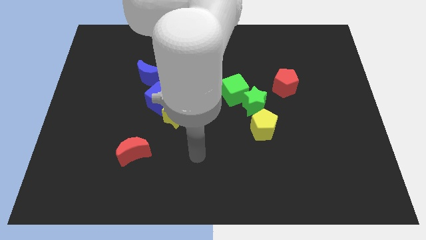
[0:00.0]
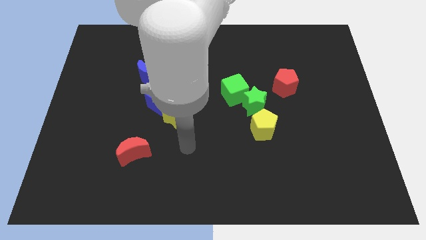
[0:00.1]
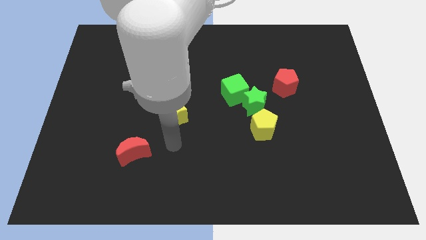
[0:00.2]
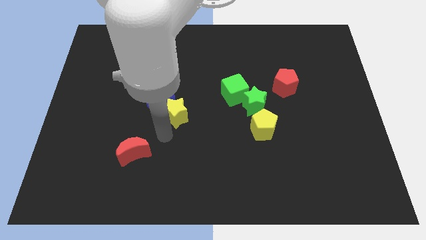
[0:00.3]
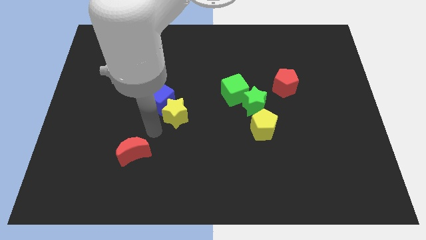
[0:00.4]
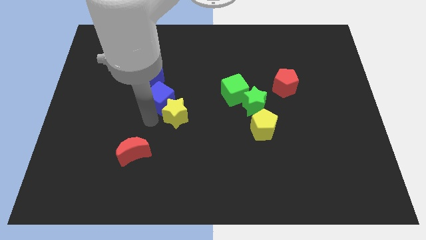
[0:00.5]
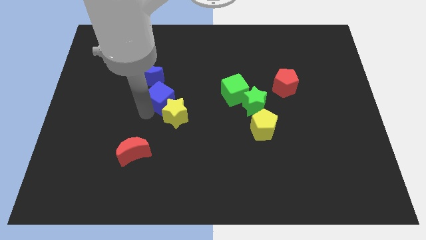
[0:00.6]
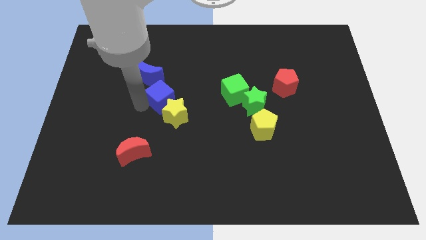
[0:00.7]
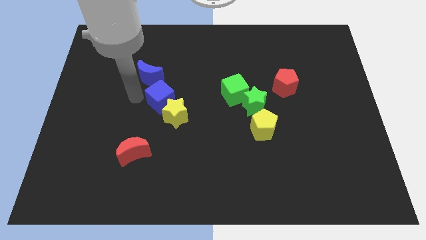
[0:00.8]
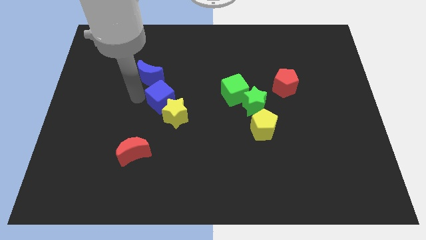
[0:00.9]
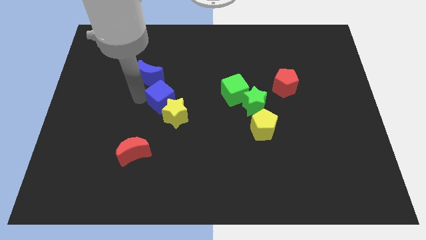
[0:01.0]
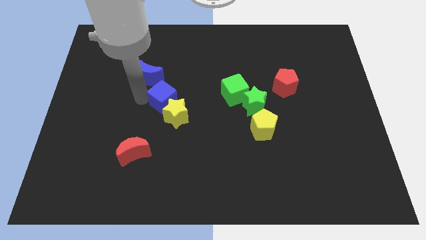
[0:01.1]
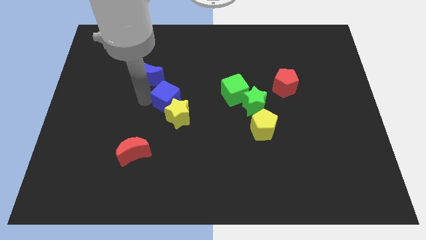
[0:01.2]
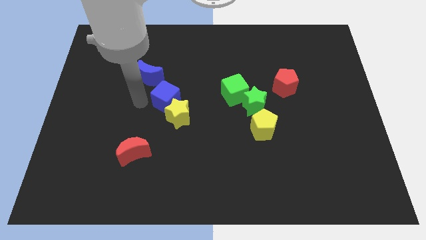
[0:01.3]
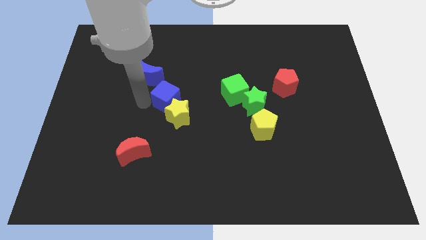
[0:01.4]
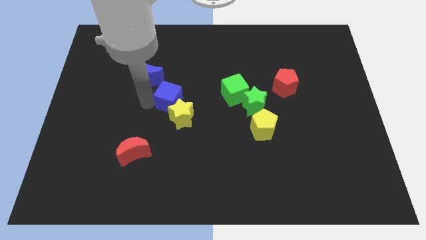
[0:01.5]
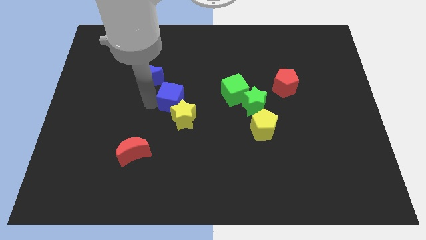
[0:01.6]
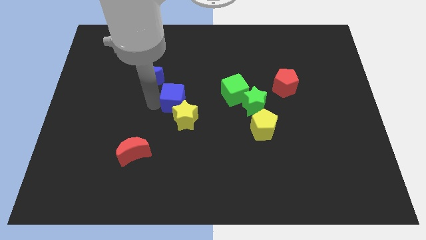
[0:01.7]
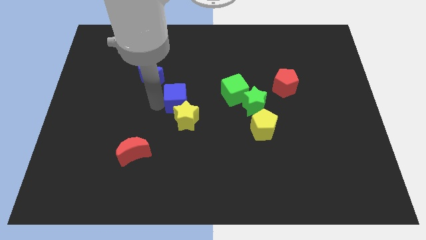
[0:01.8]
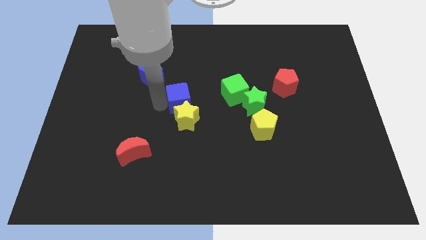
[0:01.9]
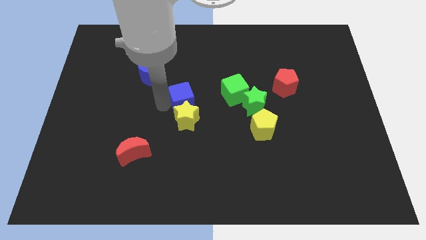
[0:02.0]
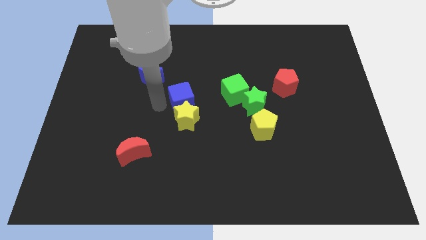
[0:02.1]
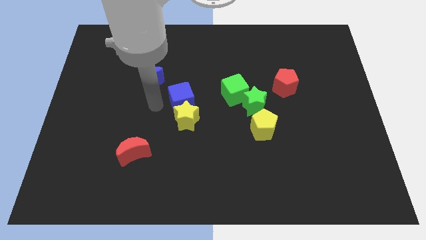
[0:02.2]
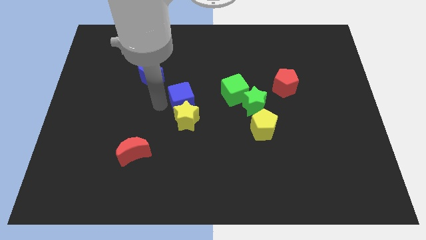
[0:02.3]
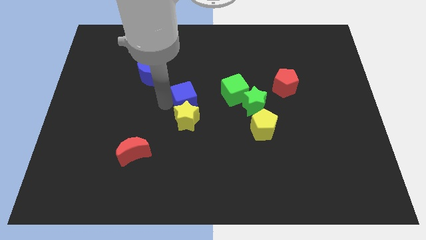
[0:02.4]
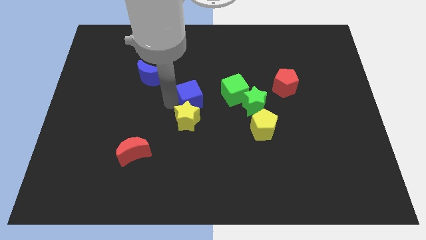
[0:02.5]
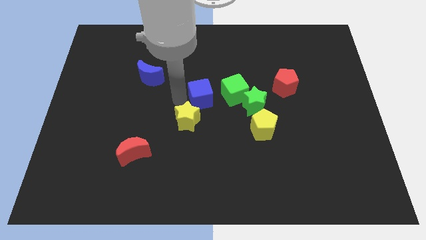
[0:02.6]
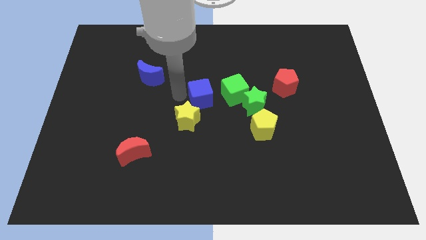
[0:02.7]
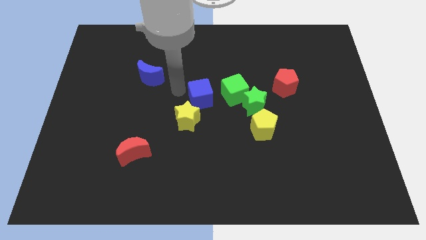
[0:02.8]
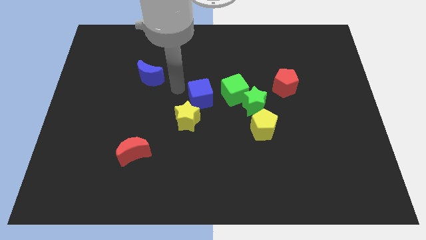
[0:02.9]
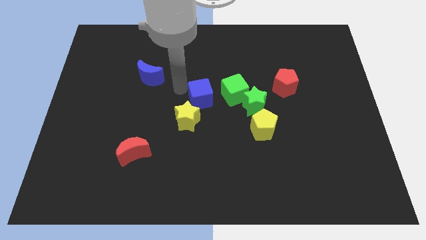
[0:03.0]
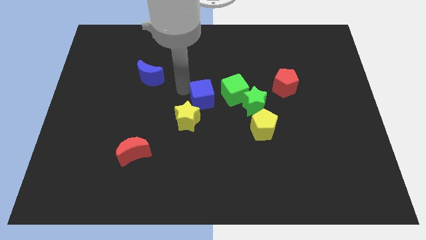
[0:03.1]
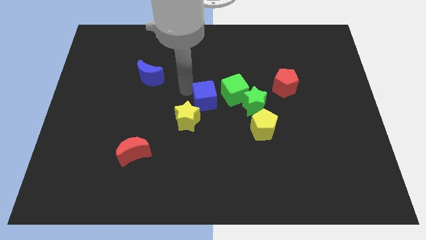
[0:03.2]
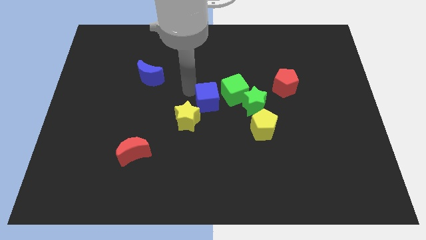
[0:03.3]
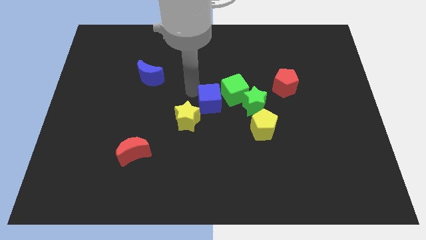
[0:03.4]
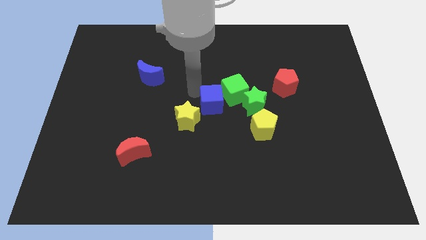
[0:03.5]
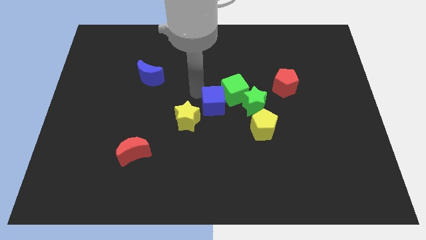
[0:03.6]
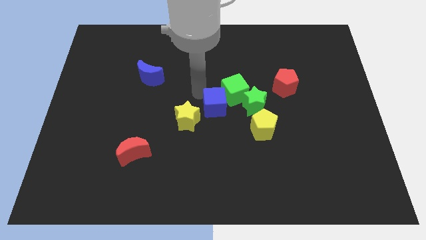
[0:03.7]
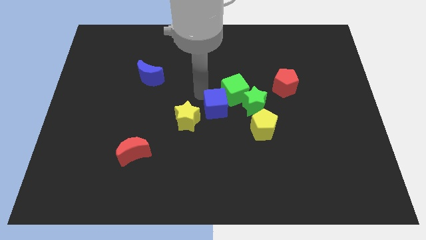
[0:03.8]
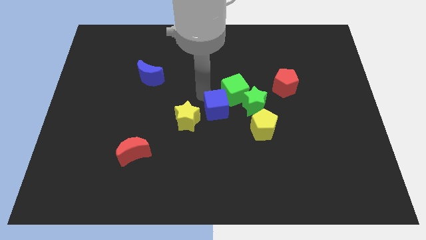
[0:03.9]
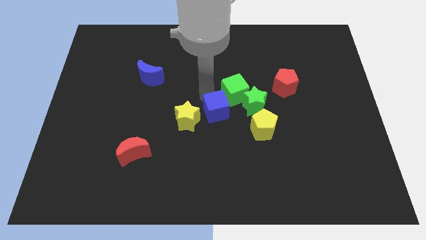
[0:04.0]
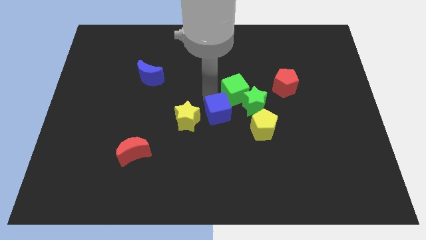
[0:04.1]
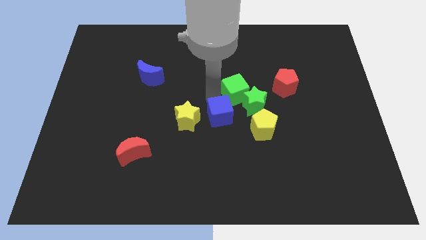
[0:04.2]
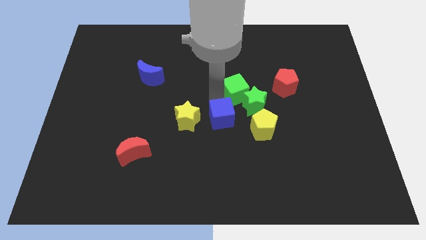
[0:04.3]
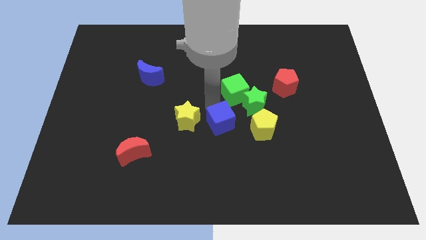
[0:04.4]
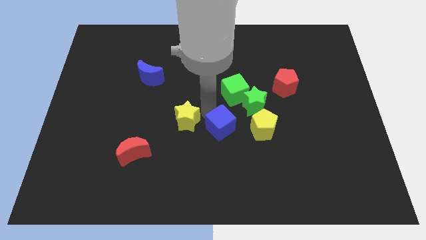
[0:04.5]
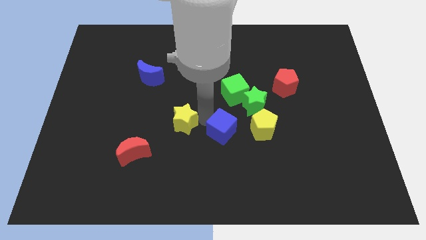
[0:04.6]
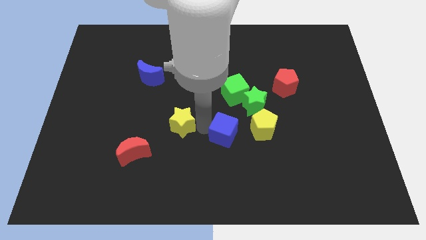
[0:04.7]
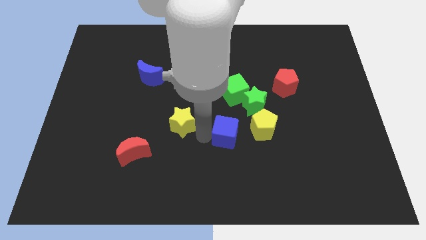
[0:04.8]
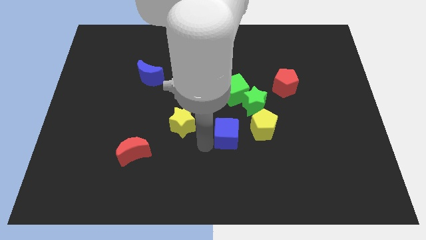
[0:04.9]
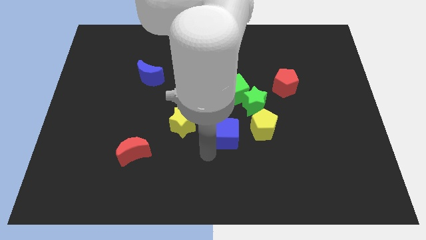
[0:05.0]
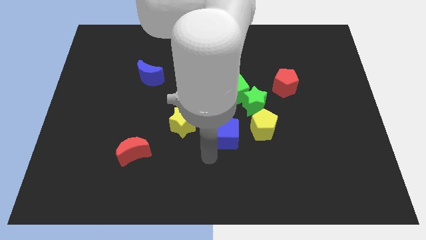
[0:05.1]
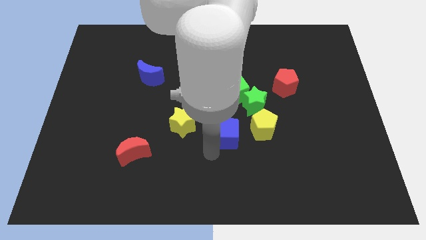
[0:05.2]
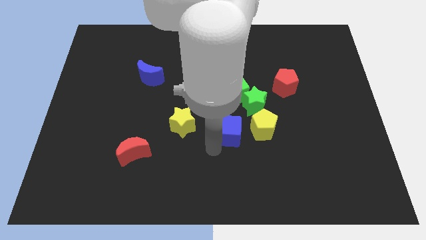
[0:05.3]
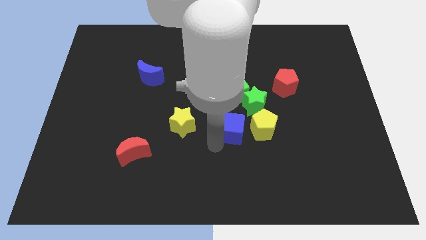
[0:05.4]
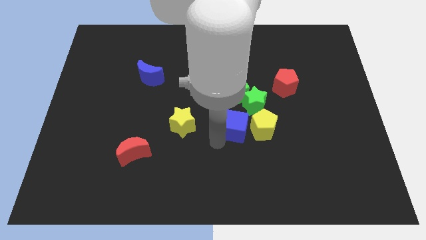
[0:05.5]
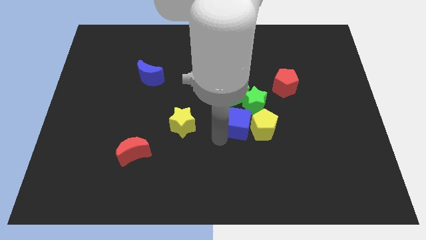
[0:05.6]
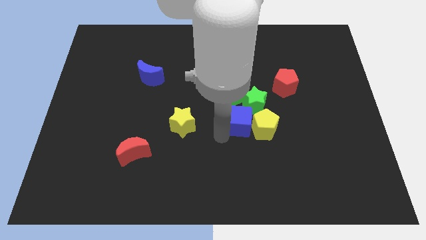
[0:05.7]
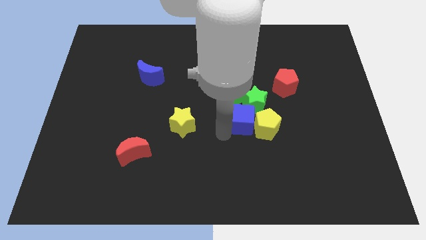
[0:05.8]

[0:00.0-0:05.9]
push the blue cube towards the green star

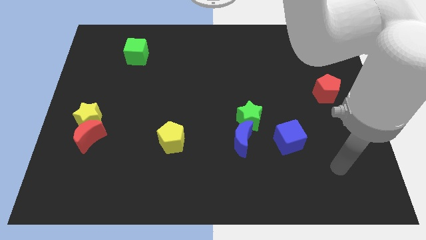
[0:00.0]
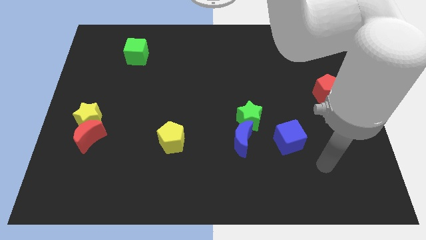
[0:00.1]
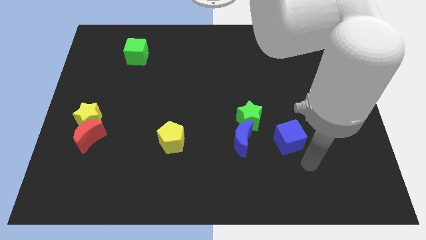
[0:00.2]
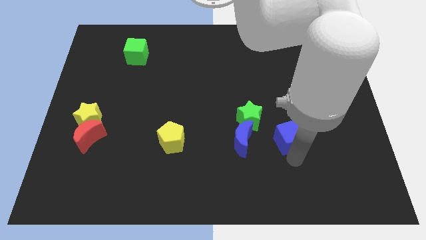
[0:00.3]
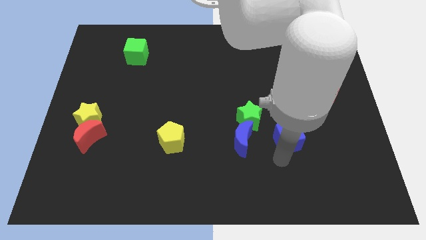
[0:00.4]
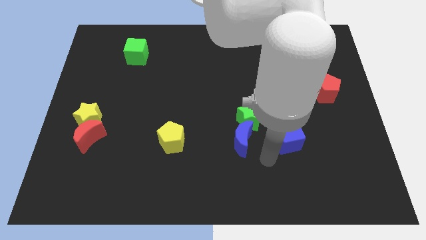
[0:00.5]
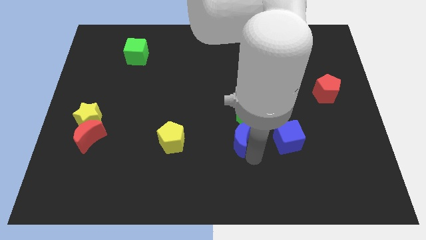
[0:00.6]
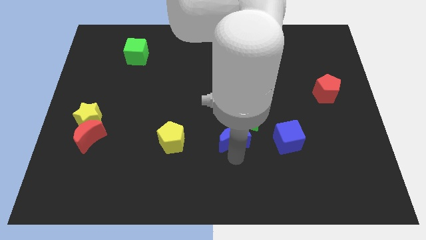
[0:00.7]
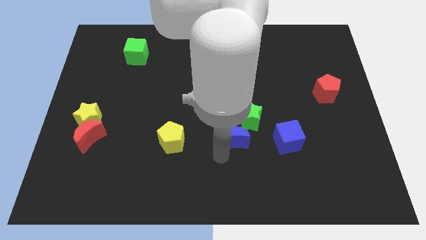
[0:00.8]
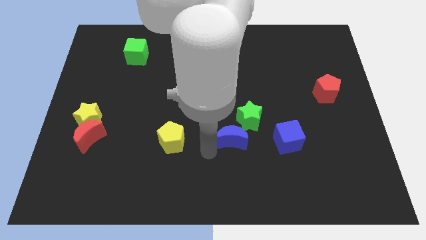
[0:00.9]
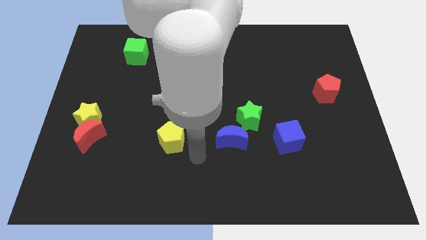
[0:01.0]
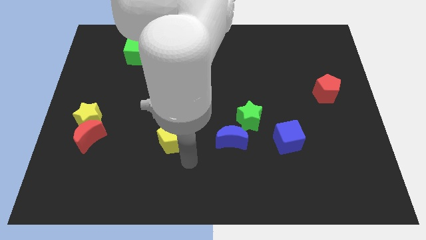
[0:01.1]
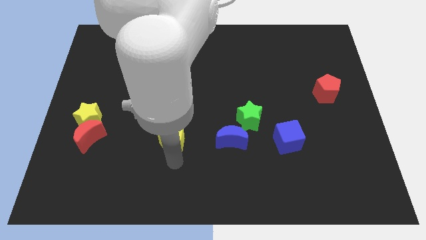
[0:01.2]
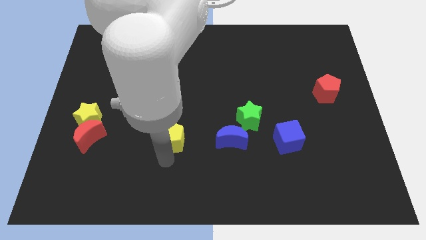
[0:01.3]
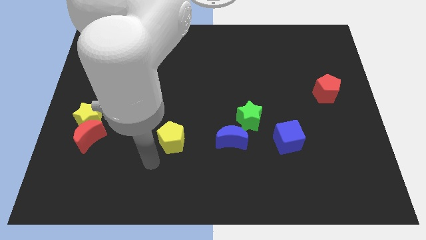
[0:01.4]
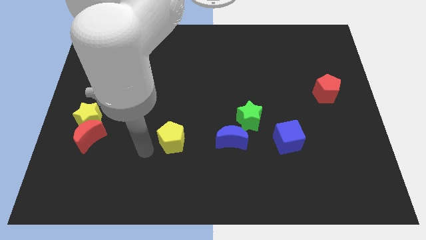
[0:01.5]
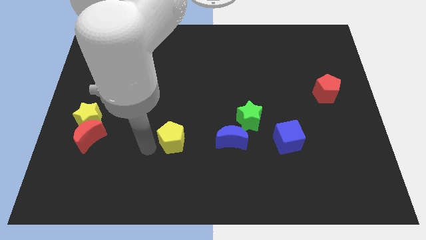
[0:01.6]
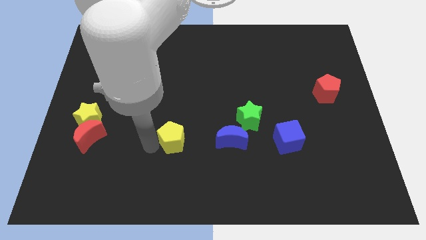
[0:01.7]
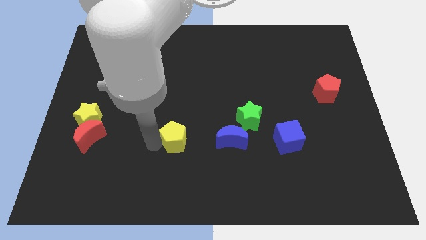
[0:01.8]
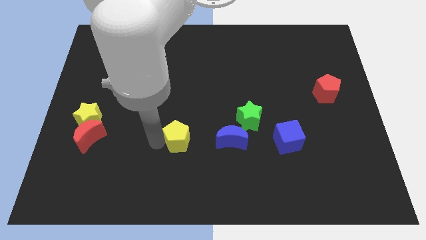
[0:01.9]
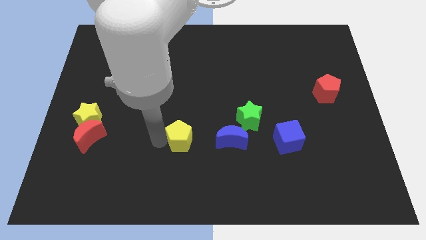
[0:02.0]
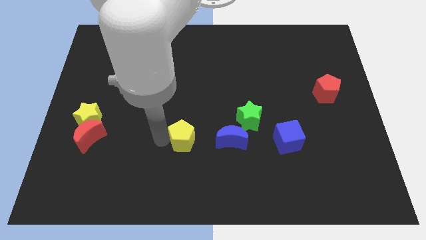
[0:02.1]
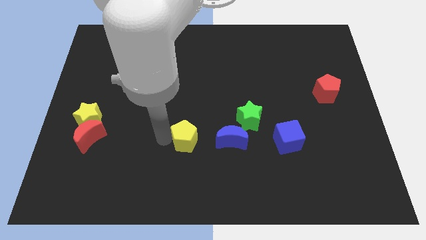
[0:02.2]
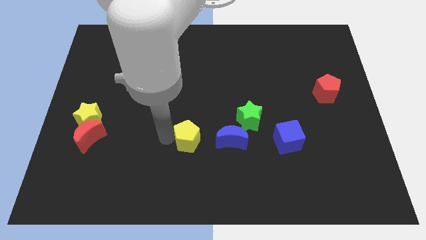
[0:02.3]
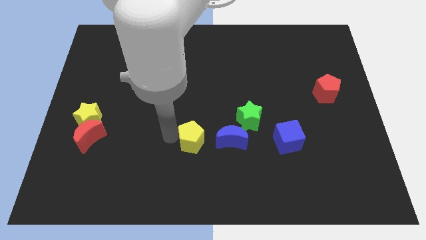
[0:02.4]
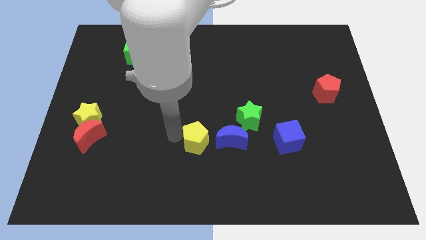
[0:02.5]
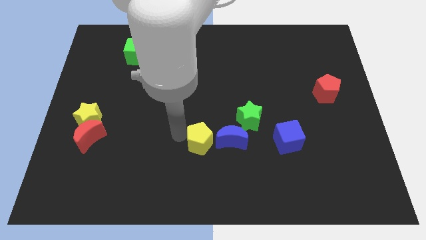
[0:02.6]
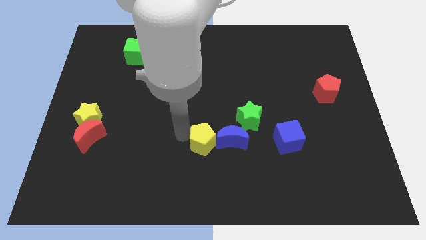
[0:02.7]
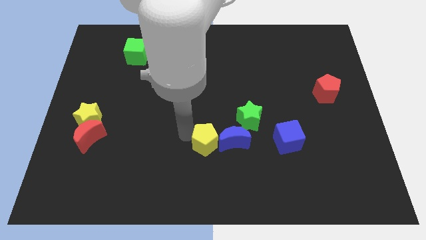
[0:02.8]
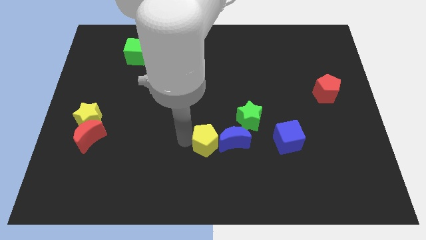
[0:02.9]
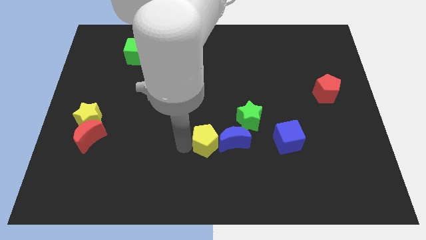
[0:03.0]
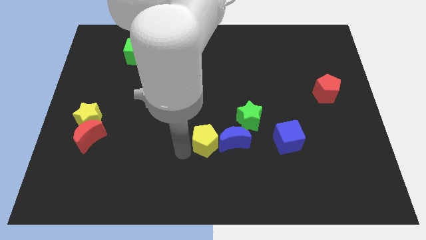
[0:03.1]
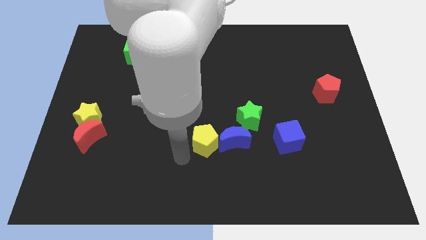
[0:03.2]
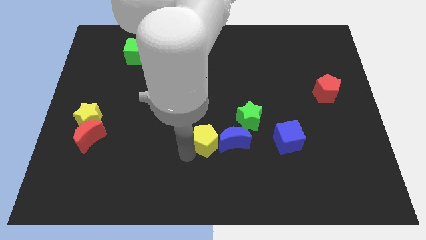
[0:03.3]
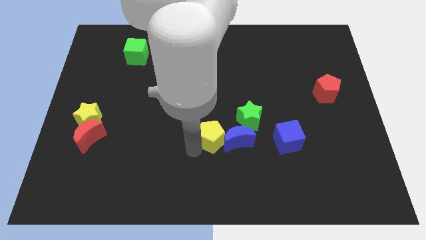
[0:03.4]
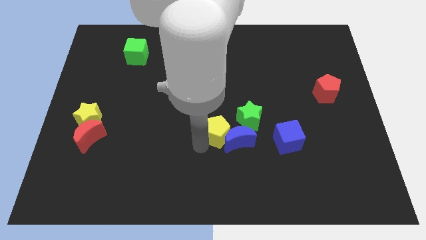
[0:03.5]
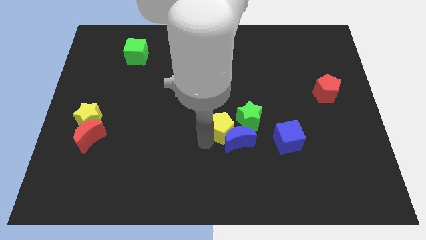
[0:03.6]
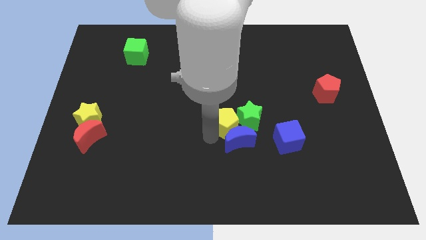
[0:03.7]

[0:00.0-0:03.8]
slide the yellow pentagon close to the green star
